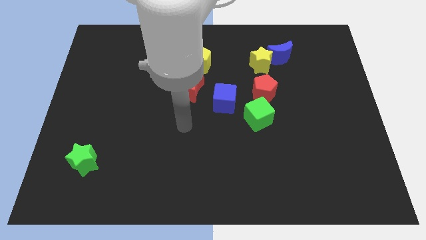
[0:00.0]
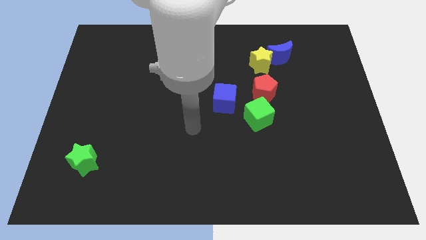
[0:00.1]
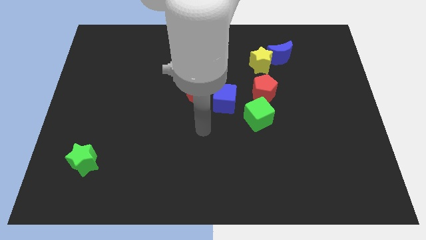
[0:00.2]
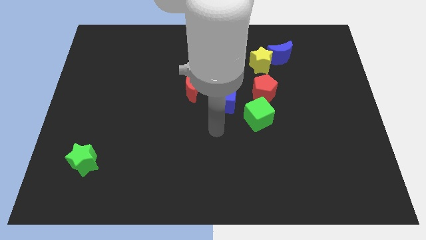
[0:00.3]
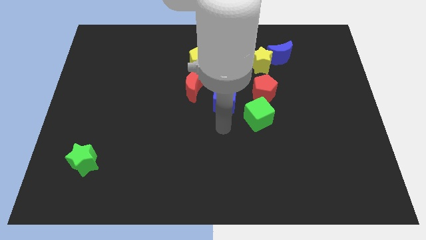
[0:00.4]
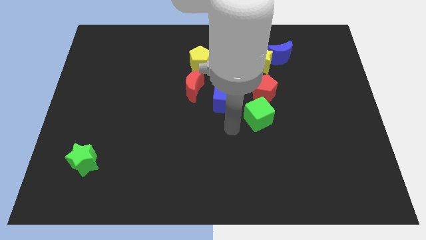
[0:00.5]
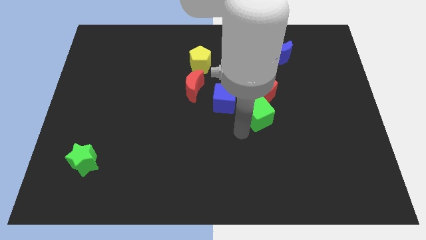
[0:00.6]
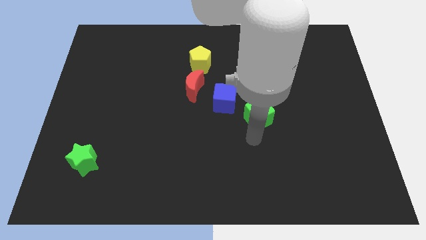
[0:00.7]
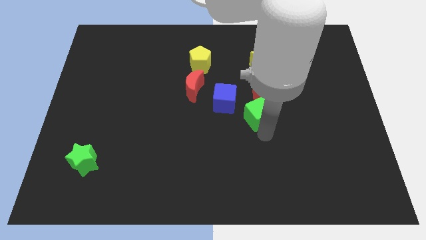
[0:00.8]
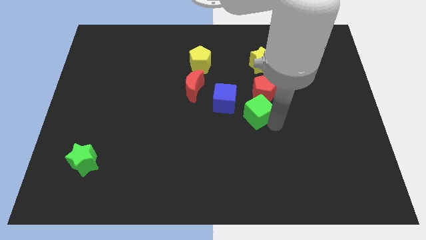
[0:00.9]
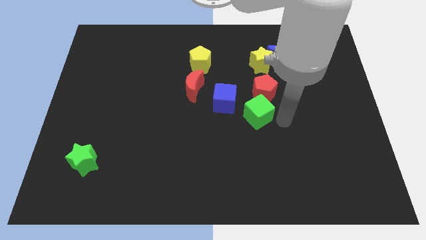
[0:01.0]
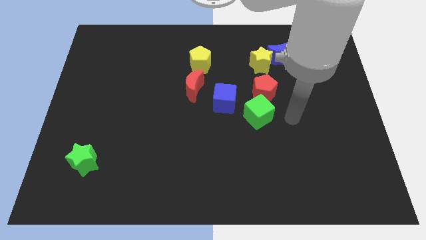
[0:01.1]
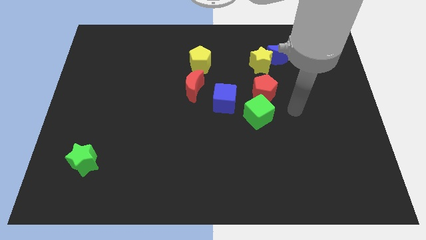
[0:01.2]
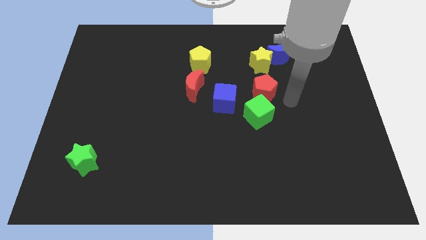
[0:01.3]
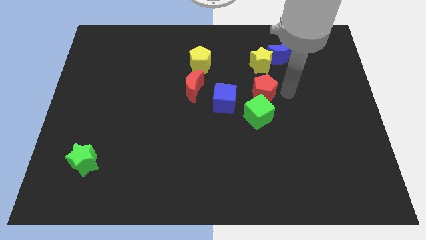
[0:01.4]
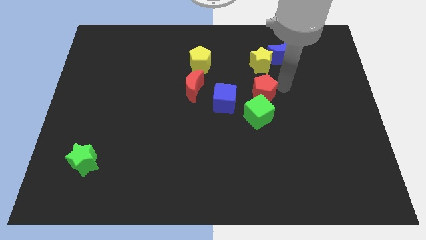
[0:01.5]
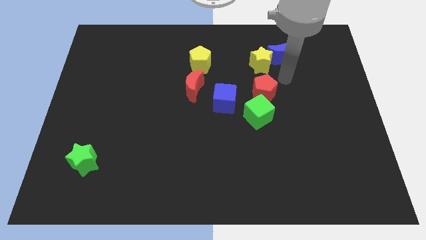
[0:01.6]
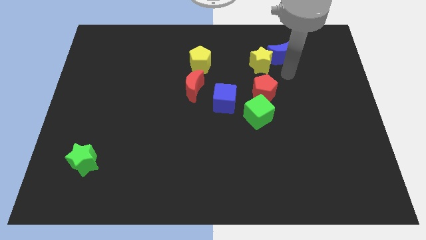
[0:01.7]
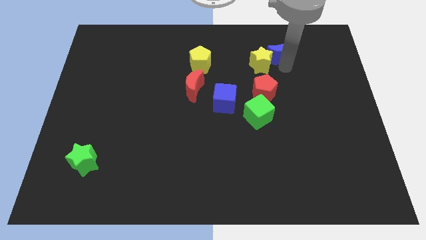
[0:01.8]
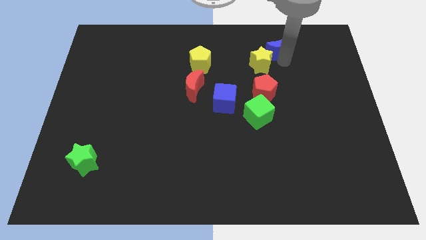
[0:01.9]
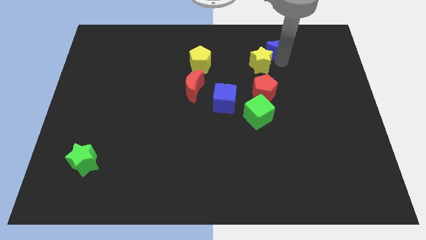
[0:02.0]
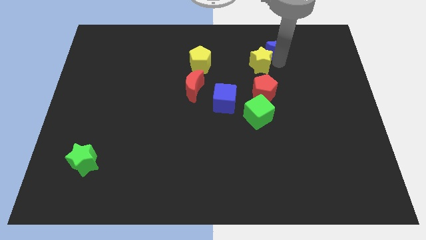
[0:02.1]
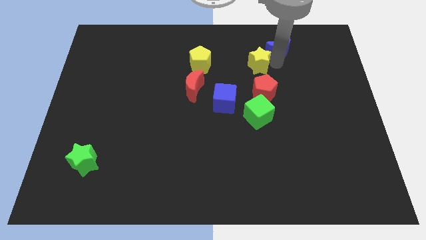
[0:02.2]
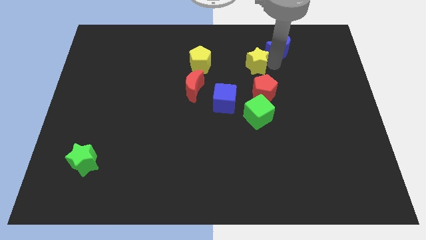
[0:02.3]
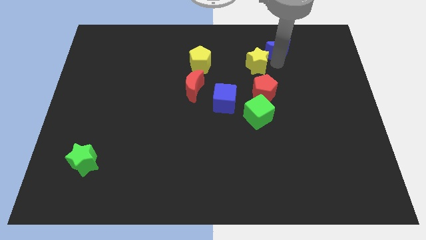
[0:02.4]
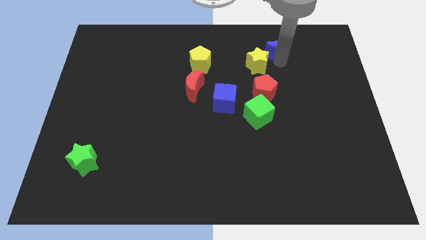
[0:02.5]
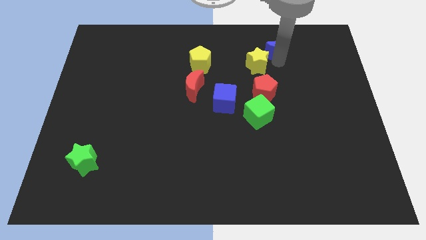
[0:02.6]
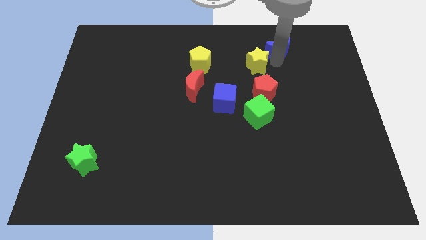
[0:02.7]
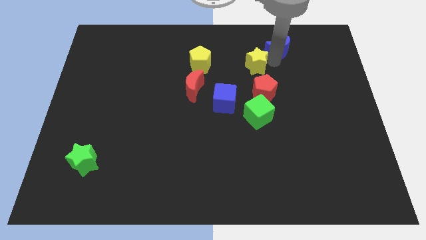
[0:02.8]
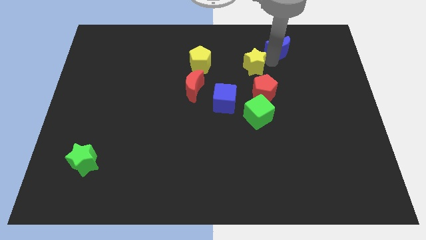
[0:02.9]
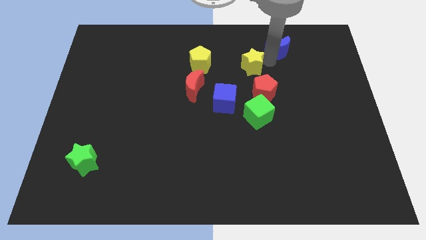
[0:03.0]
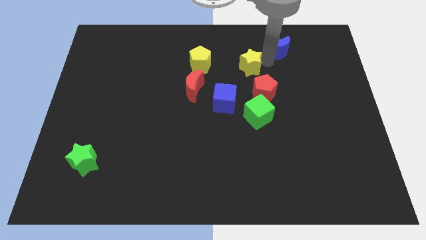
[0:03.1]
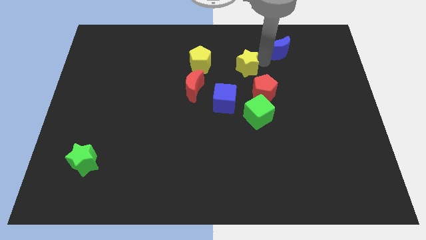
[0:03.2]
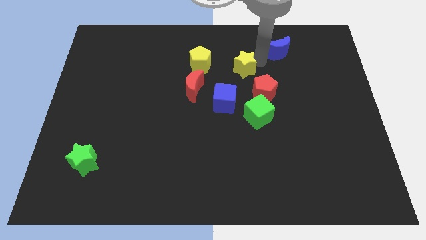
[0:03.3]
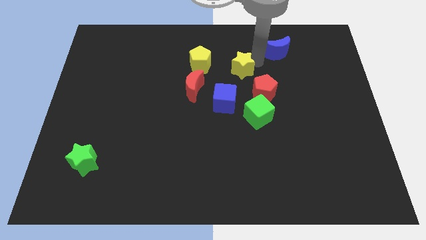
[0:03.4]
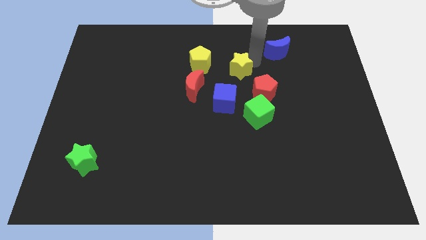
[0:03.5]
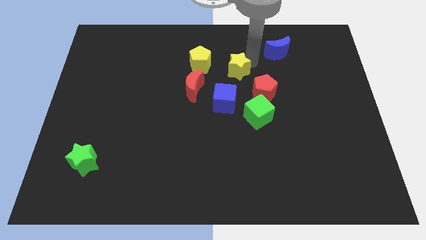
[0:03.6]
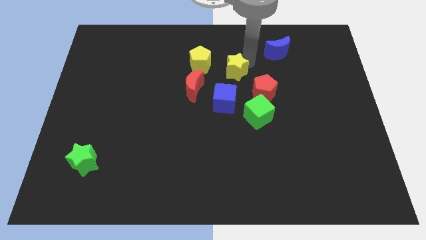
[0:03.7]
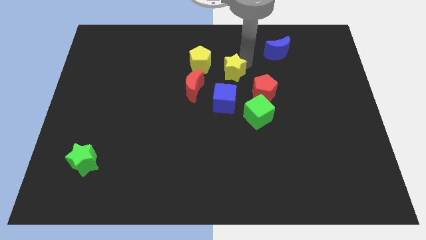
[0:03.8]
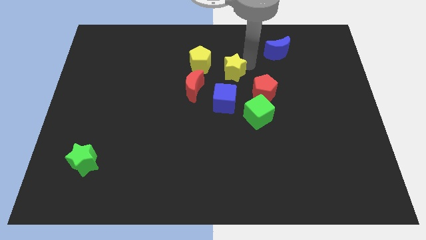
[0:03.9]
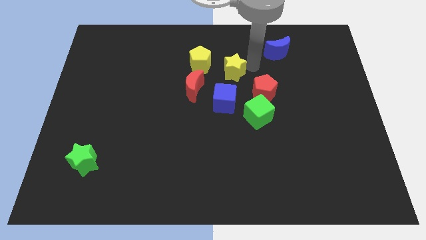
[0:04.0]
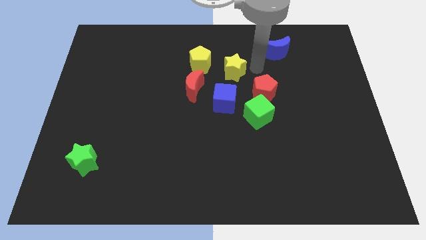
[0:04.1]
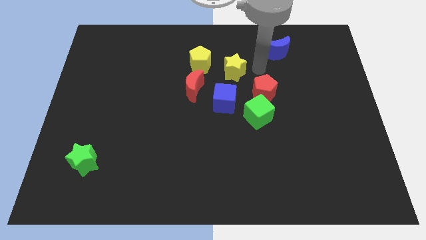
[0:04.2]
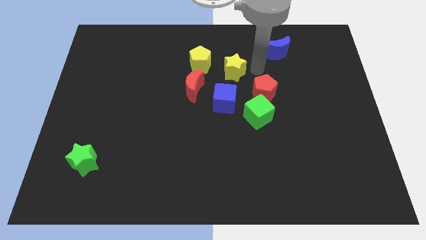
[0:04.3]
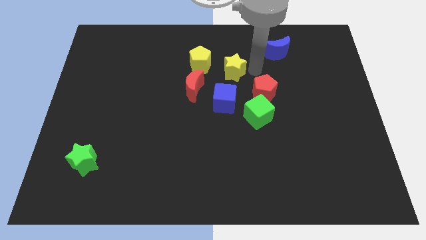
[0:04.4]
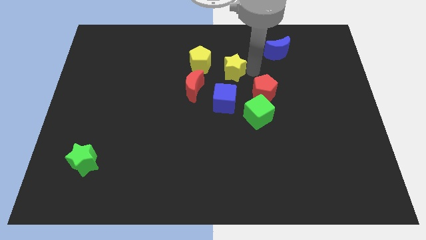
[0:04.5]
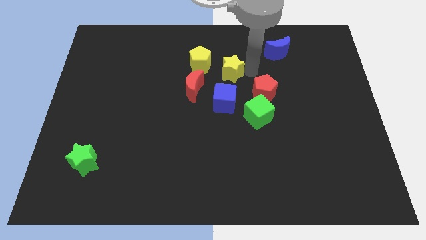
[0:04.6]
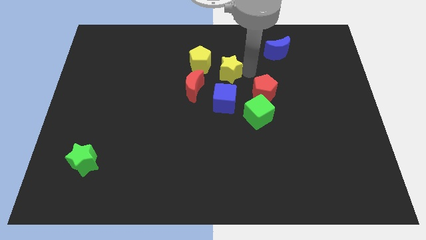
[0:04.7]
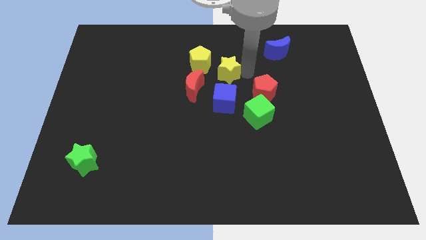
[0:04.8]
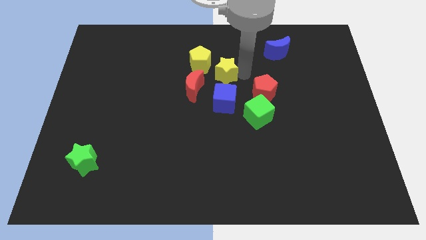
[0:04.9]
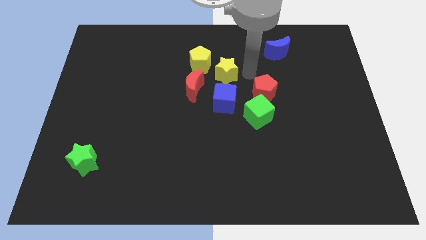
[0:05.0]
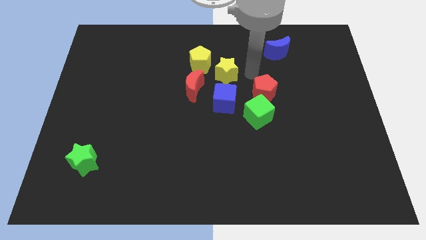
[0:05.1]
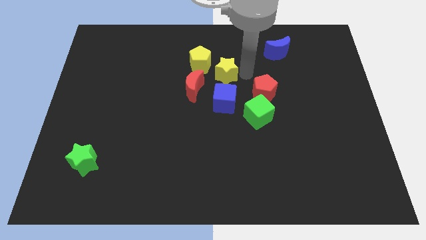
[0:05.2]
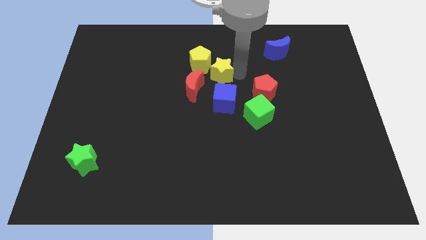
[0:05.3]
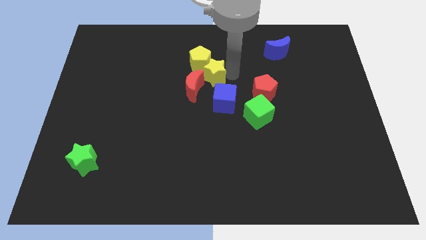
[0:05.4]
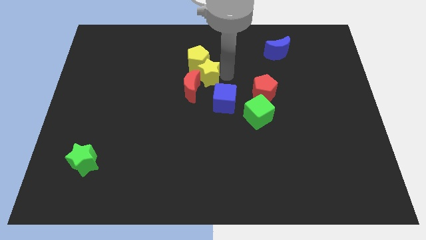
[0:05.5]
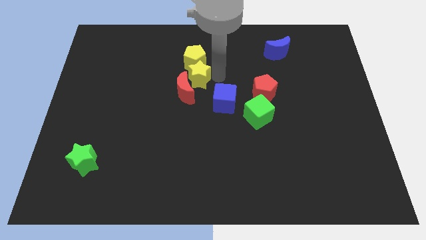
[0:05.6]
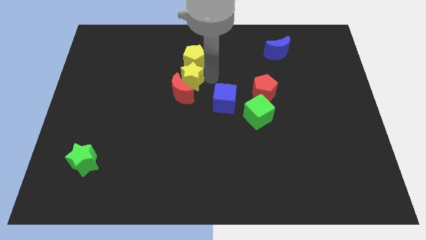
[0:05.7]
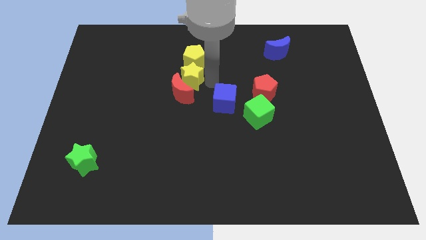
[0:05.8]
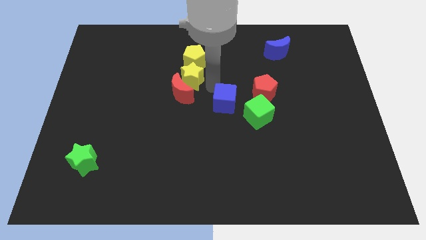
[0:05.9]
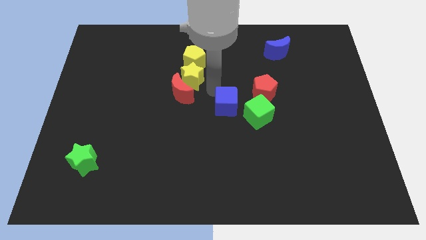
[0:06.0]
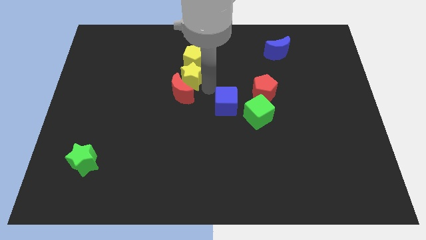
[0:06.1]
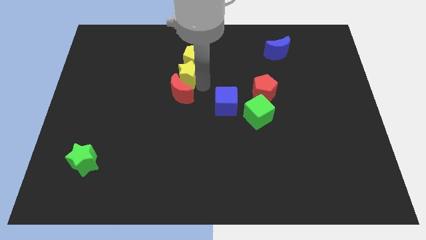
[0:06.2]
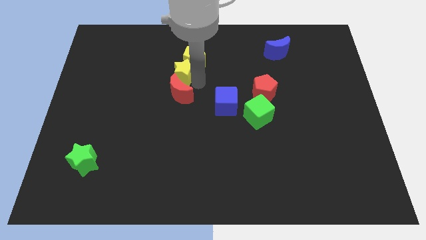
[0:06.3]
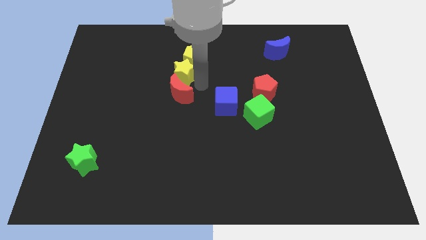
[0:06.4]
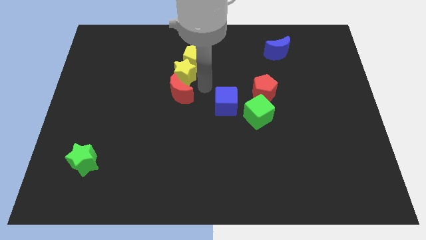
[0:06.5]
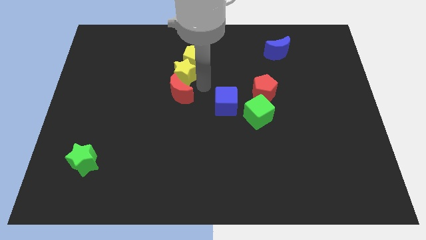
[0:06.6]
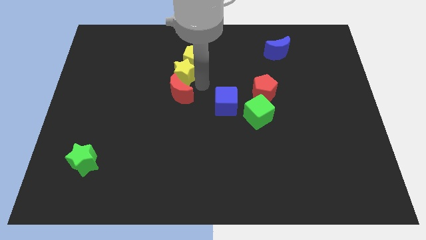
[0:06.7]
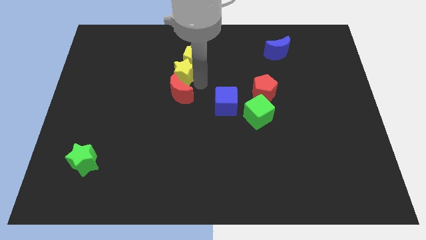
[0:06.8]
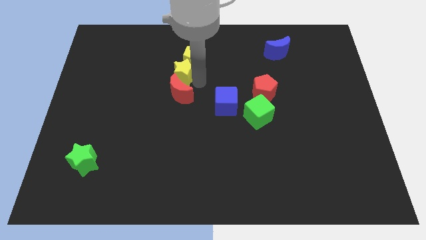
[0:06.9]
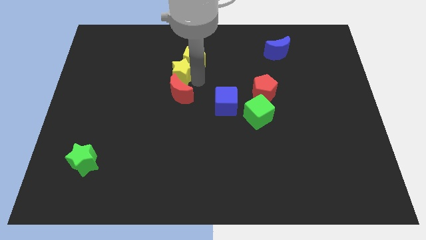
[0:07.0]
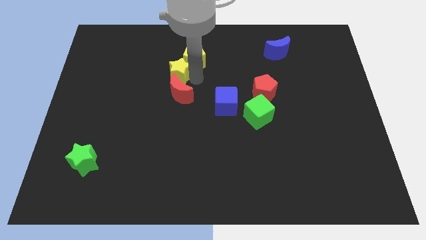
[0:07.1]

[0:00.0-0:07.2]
move the yellow star to the left

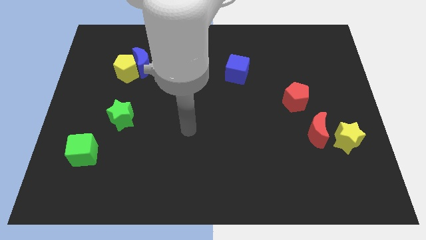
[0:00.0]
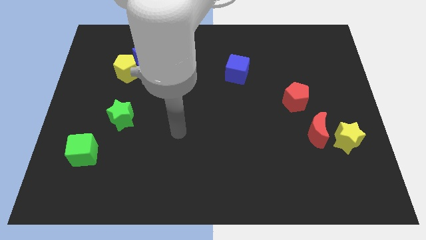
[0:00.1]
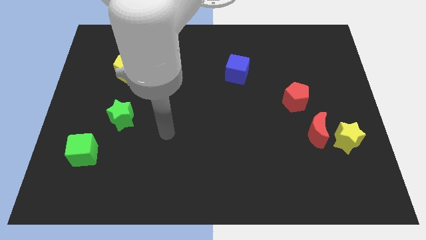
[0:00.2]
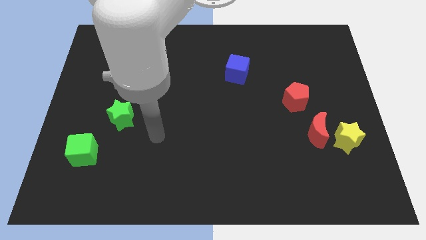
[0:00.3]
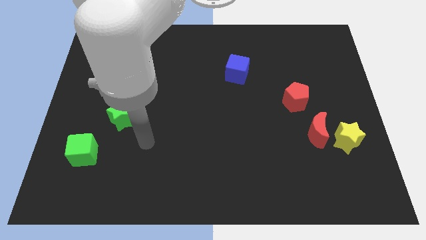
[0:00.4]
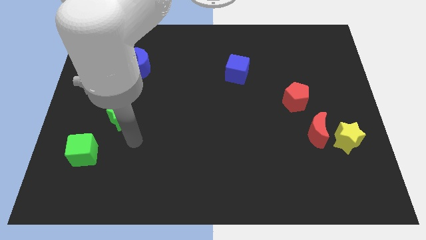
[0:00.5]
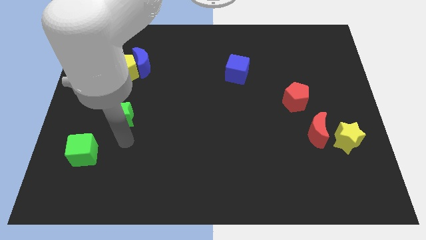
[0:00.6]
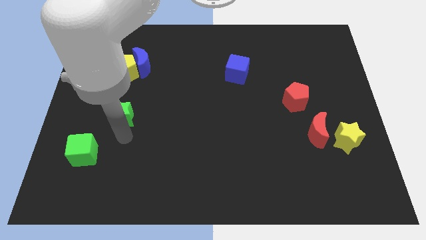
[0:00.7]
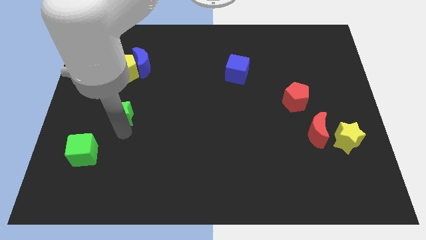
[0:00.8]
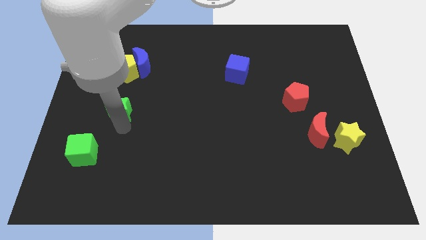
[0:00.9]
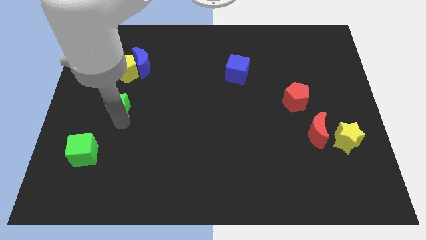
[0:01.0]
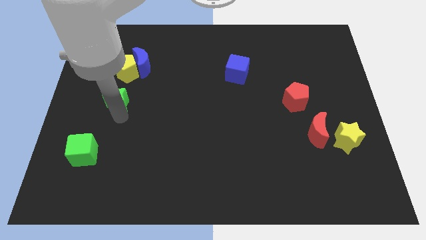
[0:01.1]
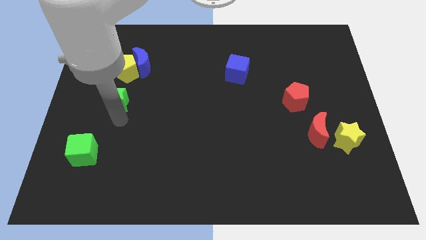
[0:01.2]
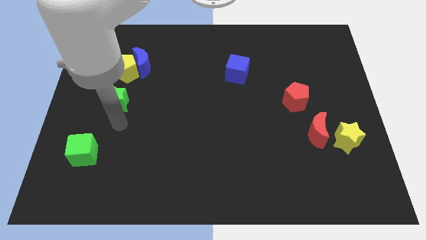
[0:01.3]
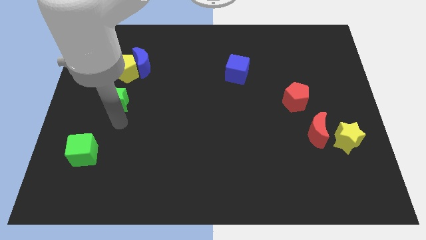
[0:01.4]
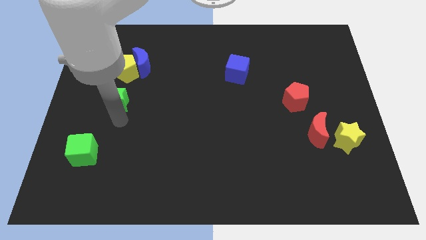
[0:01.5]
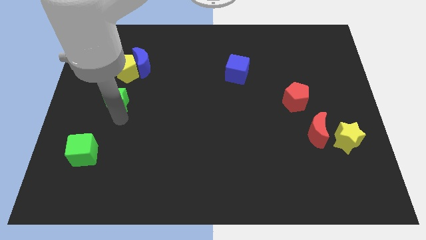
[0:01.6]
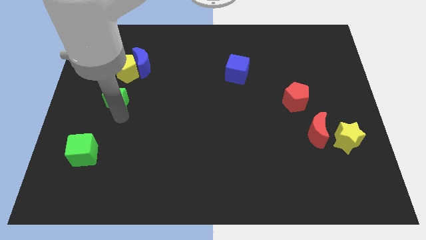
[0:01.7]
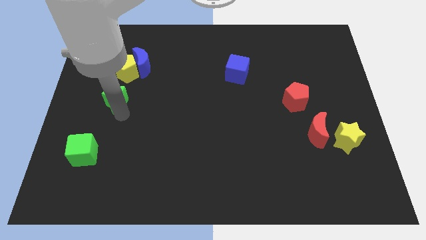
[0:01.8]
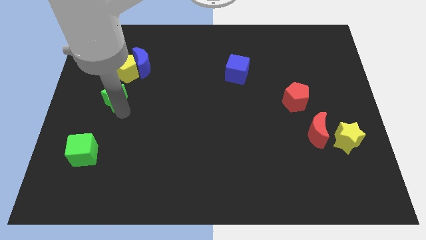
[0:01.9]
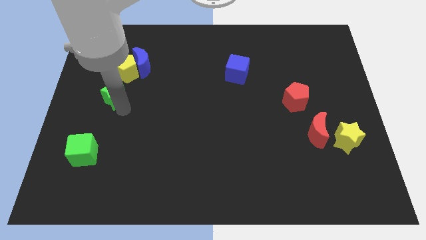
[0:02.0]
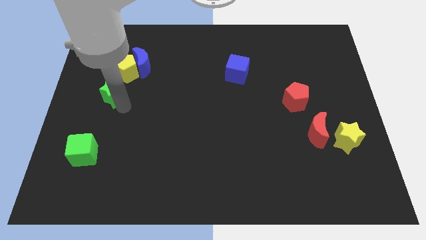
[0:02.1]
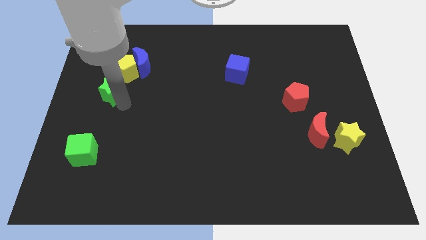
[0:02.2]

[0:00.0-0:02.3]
push the green star up a little bit
